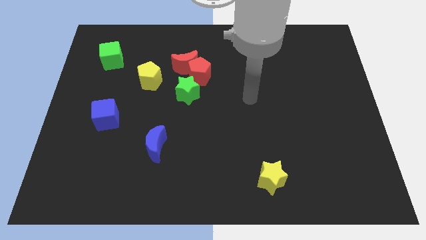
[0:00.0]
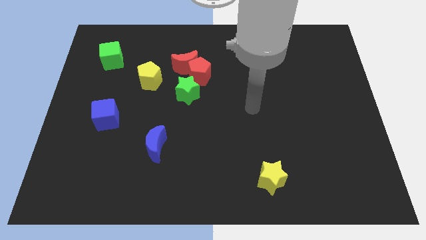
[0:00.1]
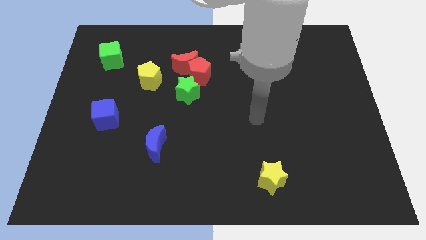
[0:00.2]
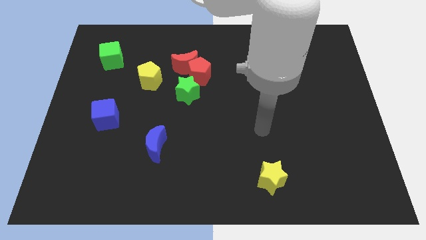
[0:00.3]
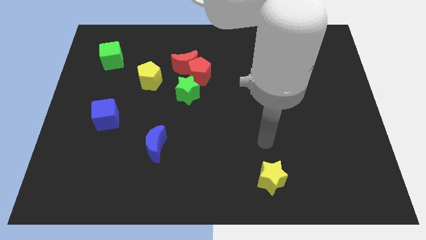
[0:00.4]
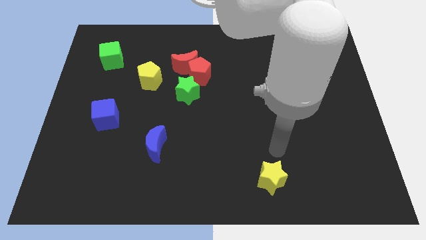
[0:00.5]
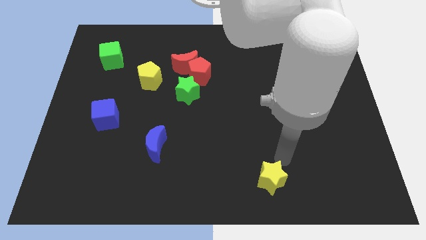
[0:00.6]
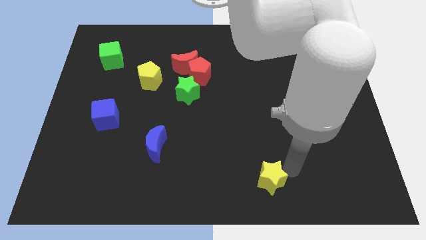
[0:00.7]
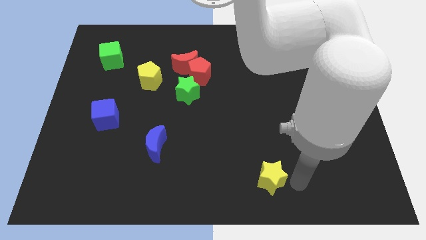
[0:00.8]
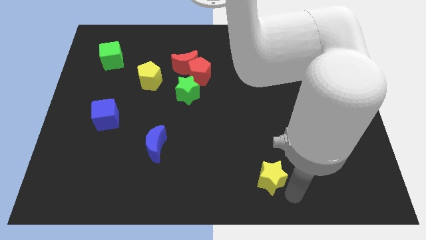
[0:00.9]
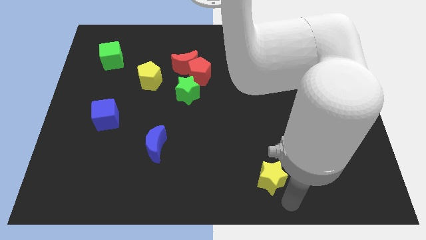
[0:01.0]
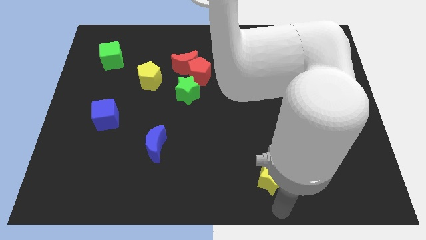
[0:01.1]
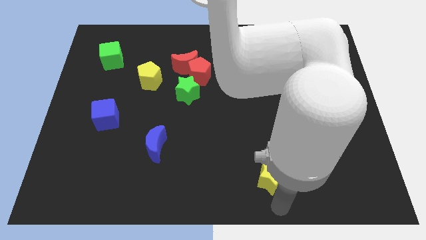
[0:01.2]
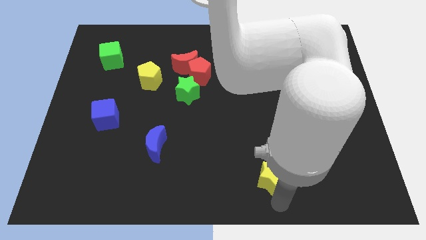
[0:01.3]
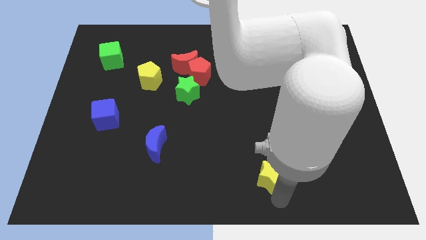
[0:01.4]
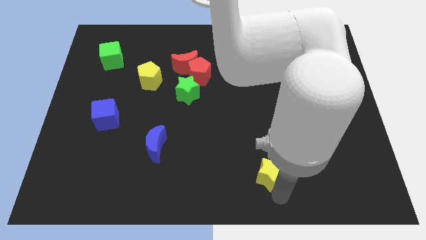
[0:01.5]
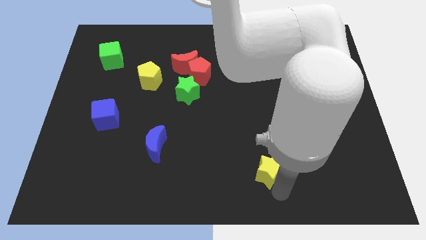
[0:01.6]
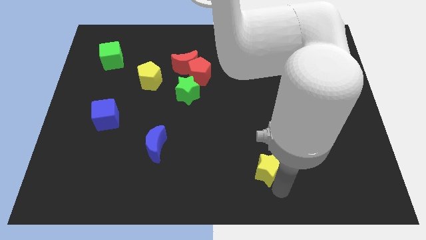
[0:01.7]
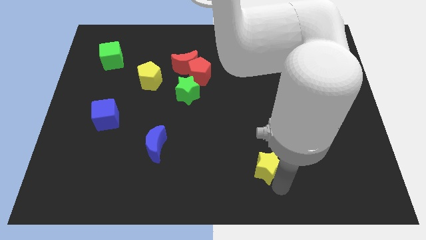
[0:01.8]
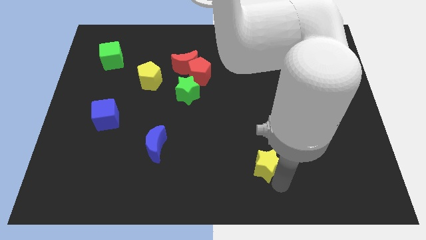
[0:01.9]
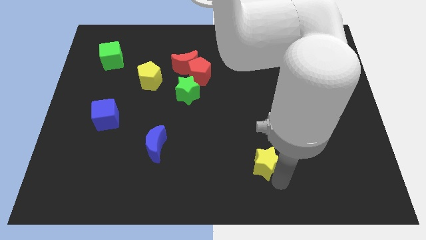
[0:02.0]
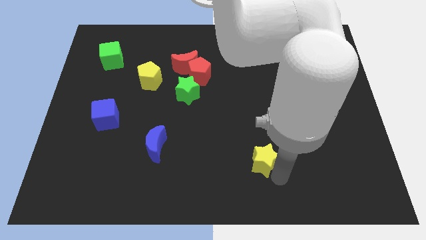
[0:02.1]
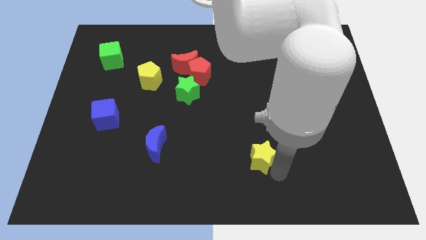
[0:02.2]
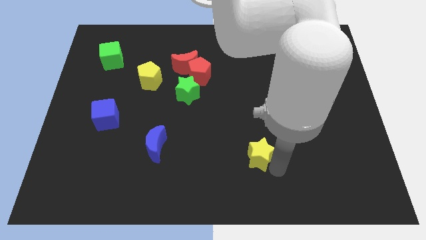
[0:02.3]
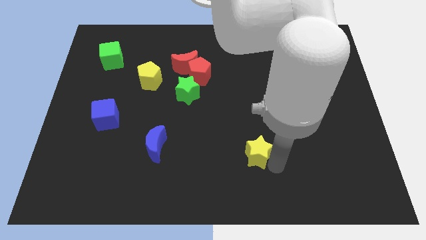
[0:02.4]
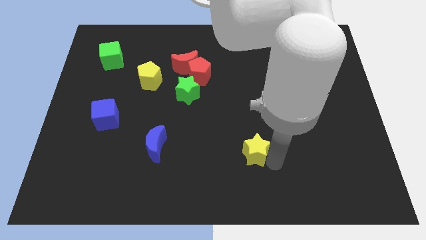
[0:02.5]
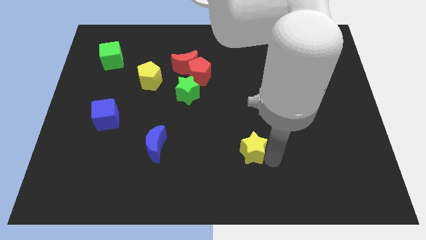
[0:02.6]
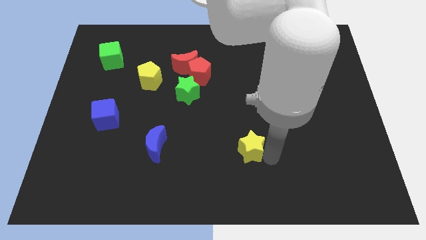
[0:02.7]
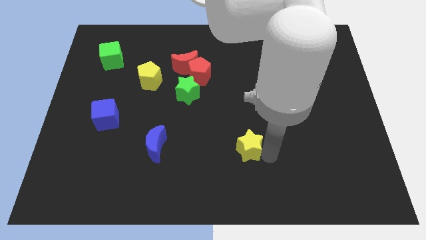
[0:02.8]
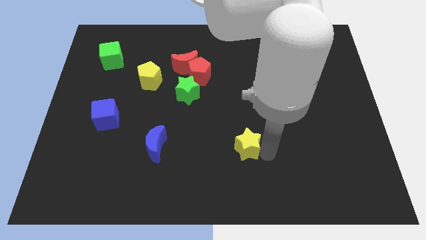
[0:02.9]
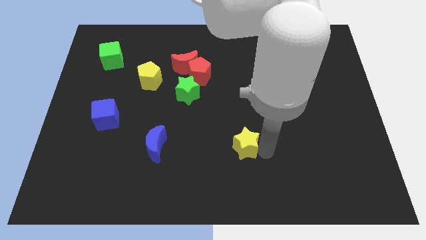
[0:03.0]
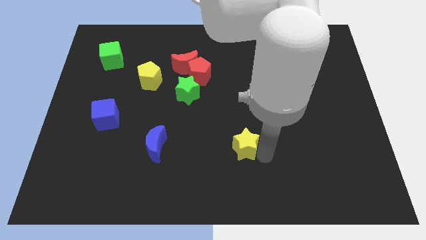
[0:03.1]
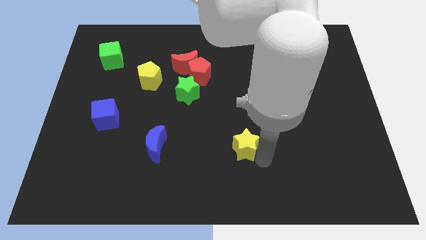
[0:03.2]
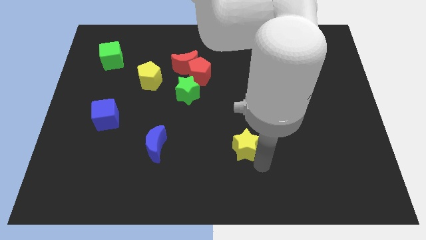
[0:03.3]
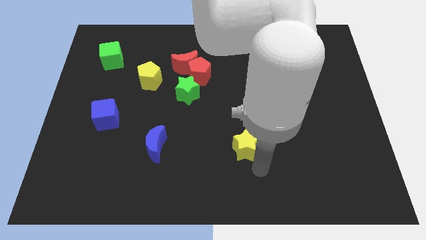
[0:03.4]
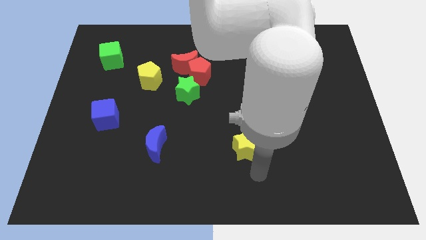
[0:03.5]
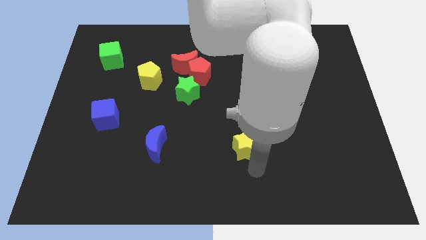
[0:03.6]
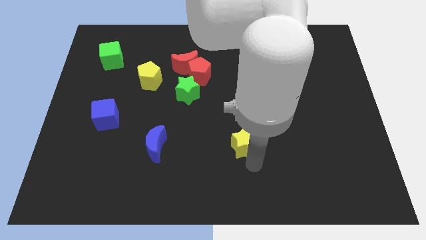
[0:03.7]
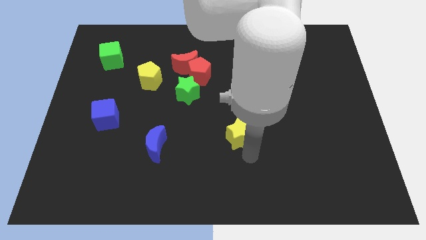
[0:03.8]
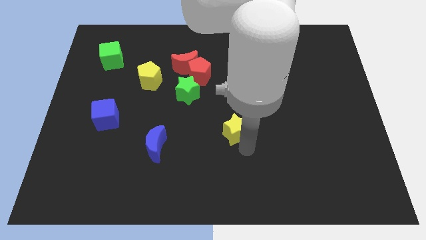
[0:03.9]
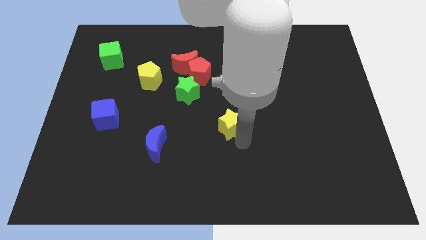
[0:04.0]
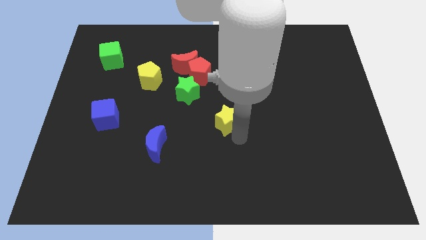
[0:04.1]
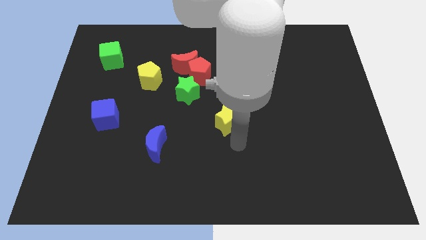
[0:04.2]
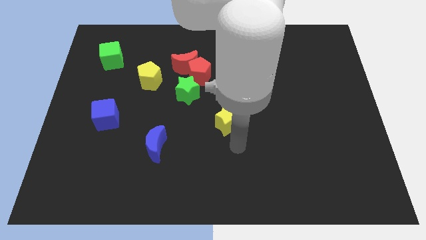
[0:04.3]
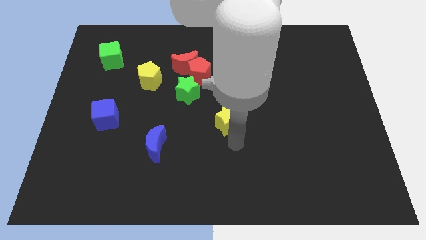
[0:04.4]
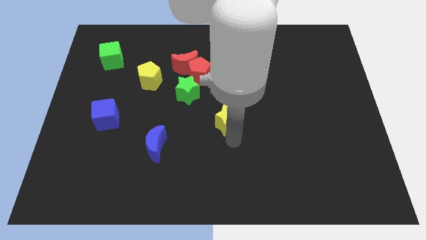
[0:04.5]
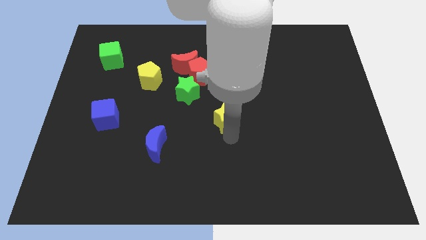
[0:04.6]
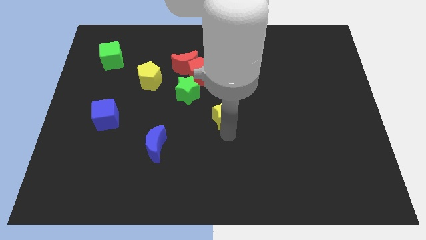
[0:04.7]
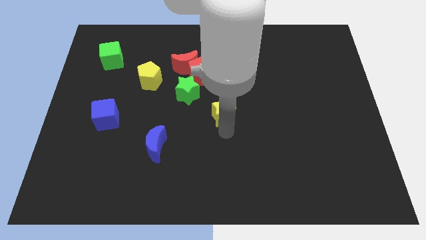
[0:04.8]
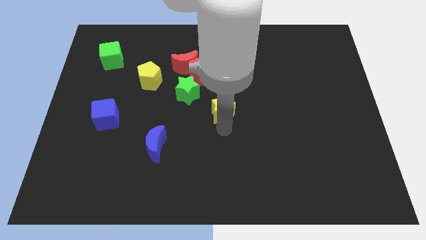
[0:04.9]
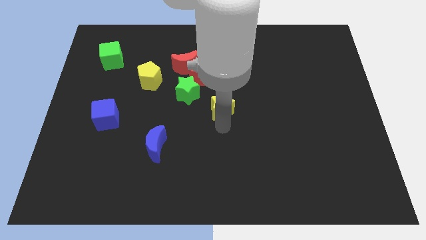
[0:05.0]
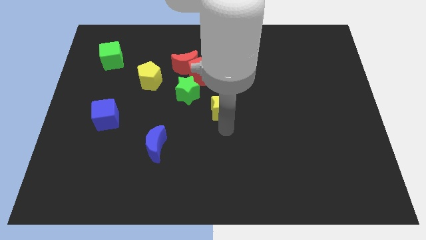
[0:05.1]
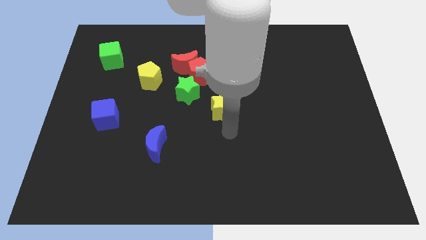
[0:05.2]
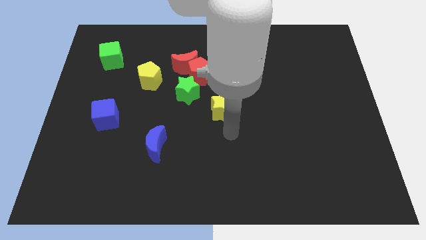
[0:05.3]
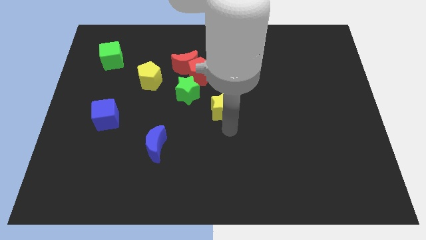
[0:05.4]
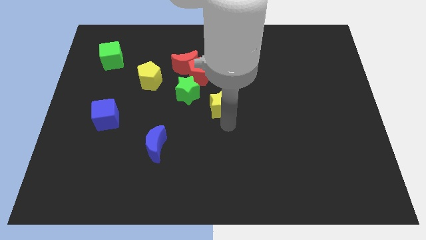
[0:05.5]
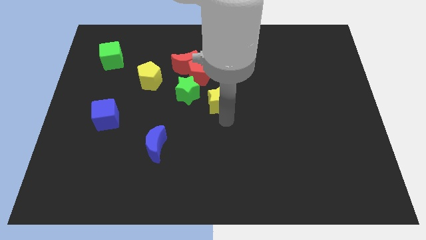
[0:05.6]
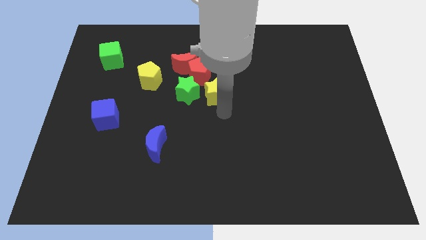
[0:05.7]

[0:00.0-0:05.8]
slide the yellow star to the bottom right side of the red moon

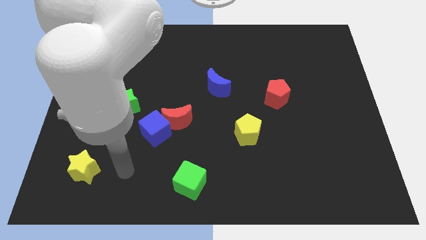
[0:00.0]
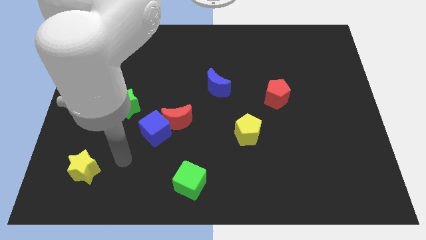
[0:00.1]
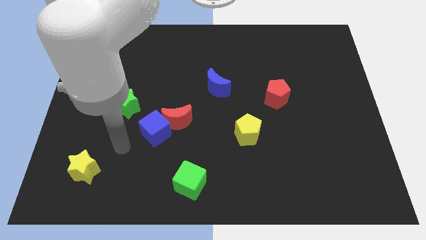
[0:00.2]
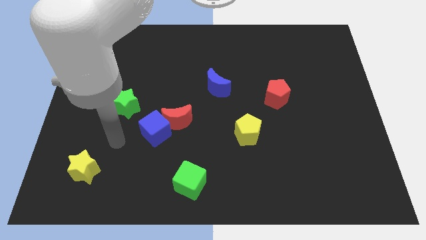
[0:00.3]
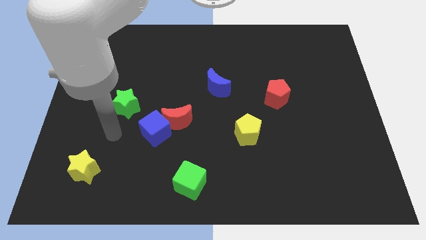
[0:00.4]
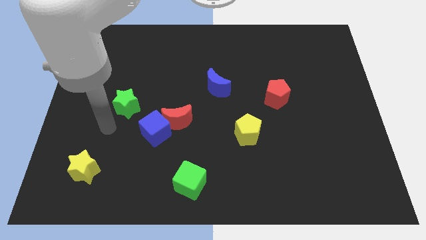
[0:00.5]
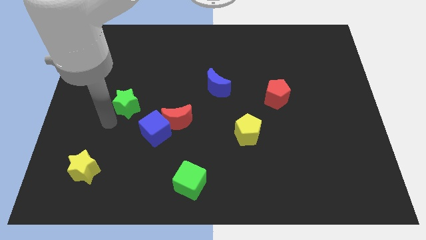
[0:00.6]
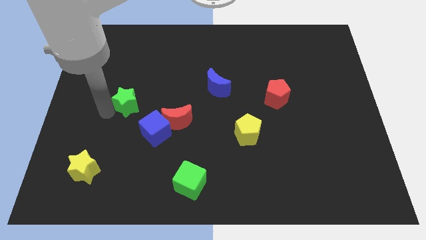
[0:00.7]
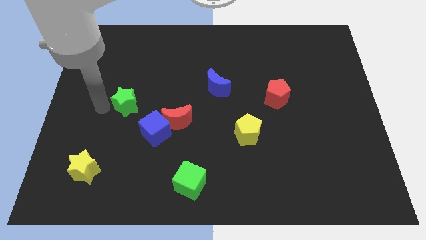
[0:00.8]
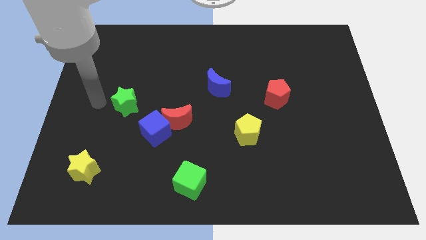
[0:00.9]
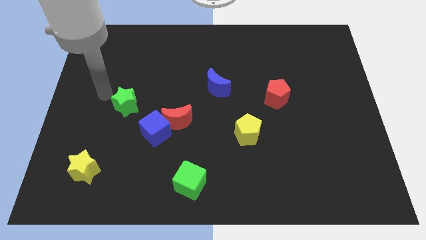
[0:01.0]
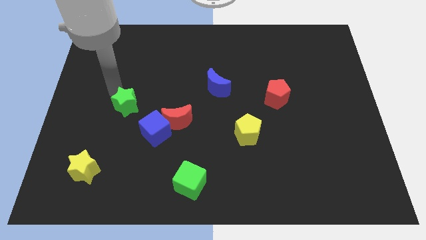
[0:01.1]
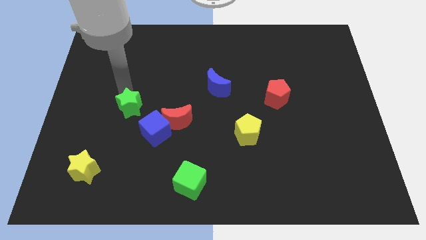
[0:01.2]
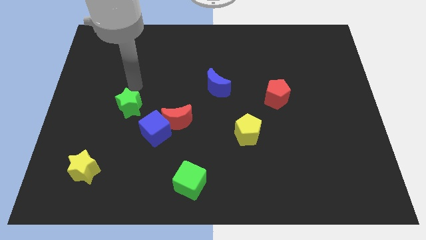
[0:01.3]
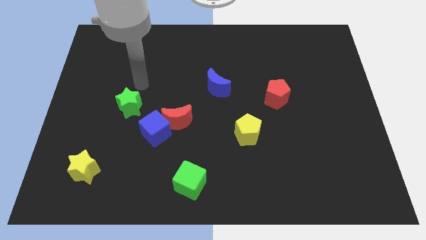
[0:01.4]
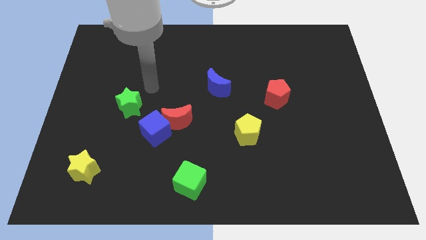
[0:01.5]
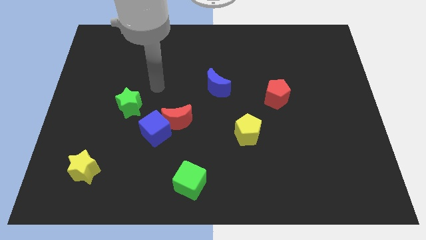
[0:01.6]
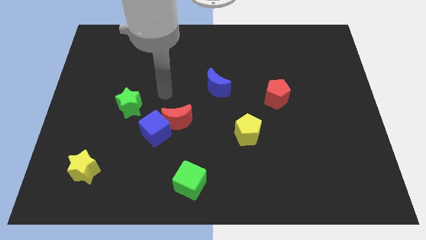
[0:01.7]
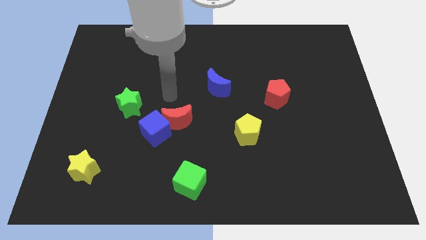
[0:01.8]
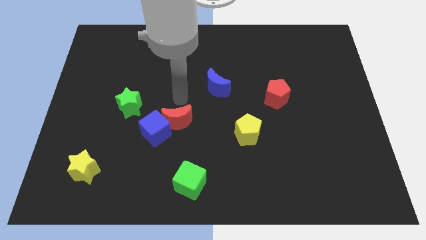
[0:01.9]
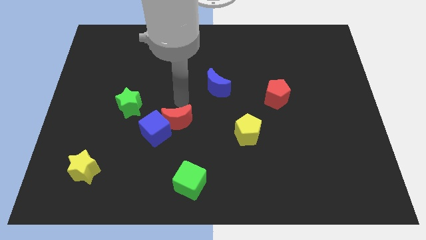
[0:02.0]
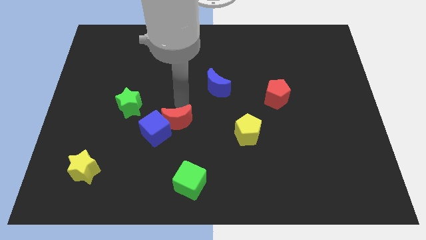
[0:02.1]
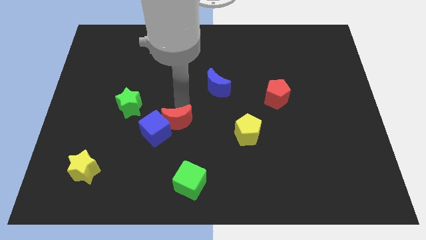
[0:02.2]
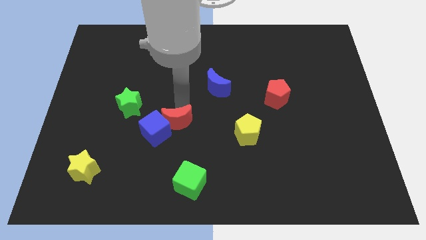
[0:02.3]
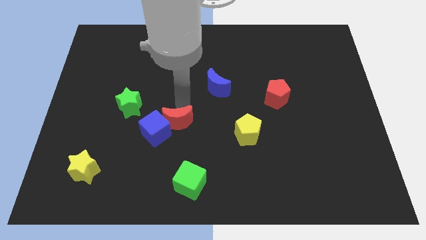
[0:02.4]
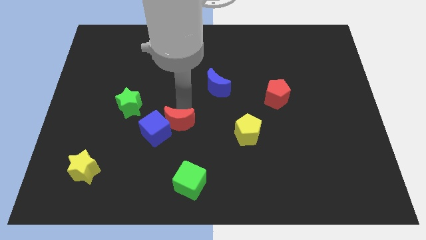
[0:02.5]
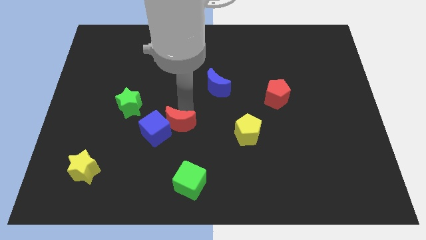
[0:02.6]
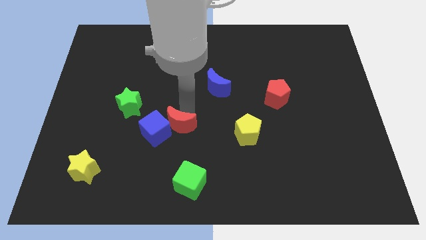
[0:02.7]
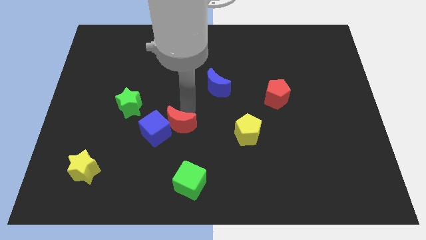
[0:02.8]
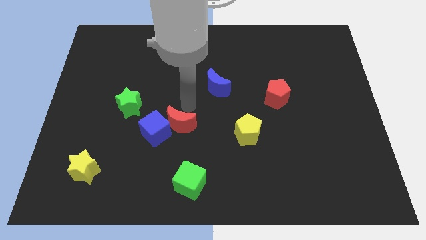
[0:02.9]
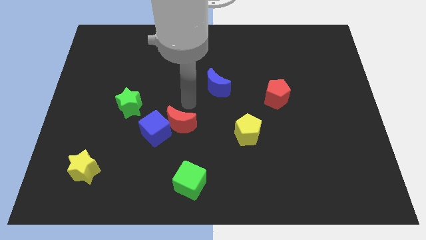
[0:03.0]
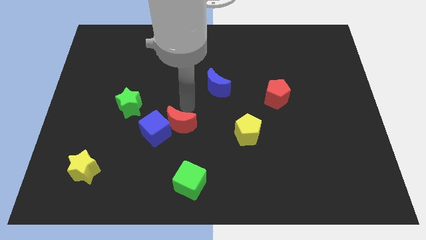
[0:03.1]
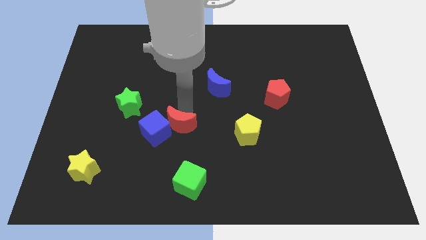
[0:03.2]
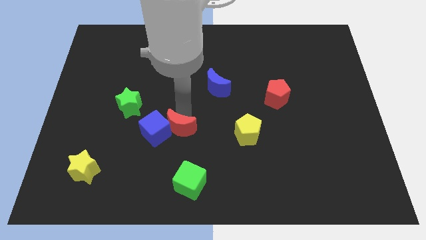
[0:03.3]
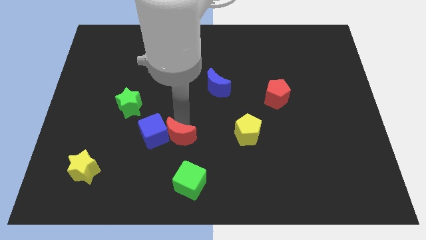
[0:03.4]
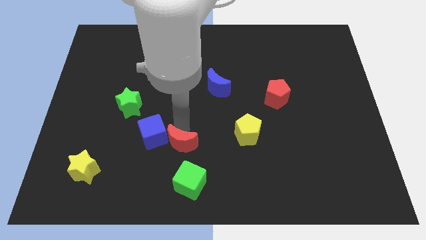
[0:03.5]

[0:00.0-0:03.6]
push the red moon to the top left side of the green cube
